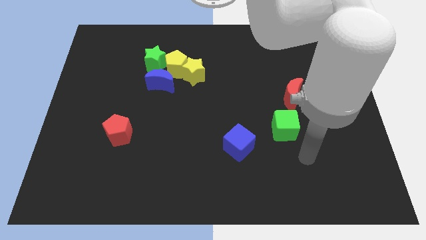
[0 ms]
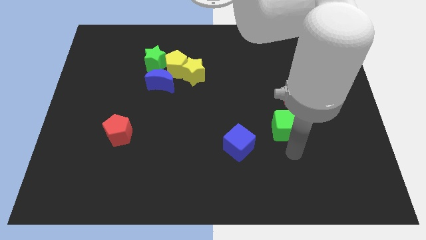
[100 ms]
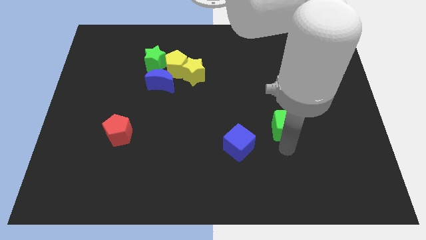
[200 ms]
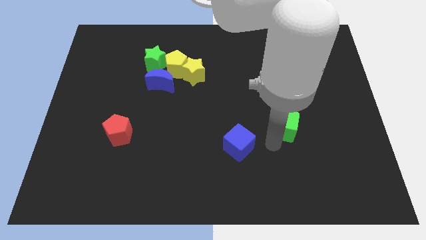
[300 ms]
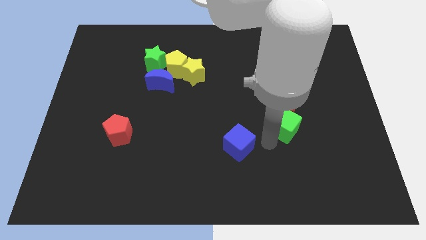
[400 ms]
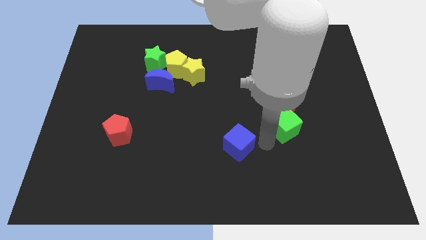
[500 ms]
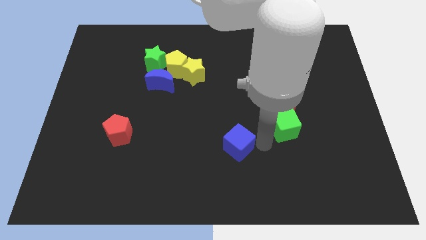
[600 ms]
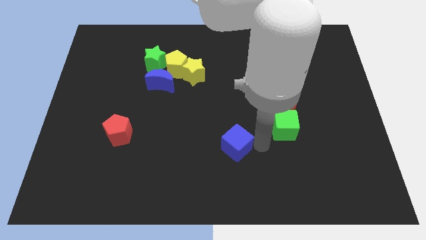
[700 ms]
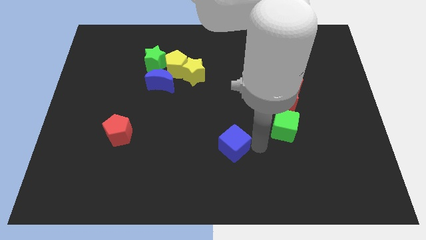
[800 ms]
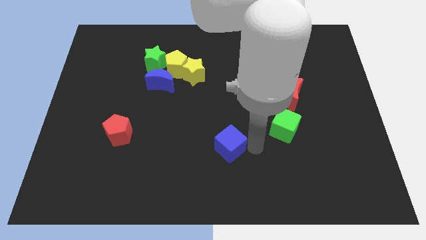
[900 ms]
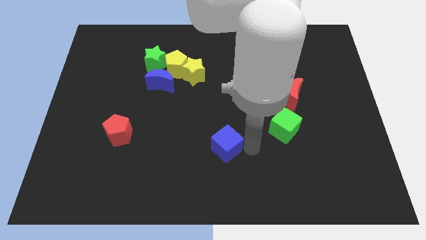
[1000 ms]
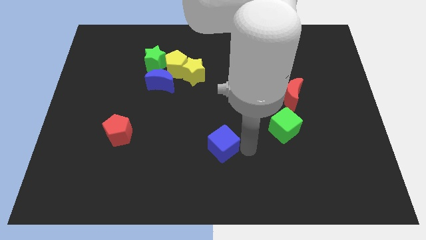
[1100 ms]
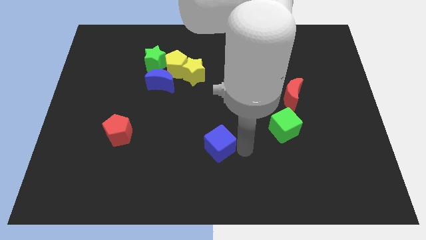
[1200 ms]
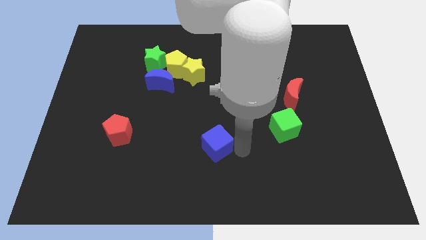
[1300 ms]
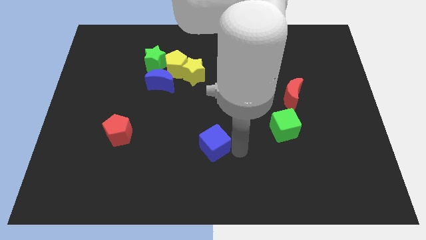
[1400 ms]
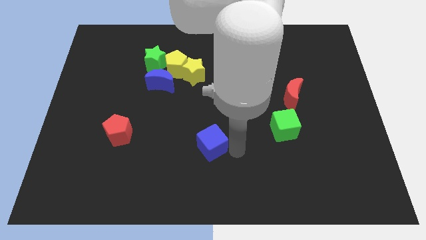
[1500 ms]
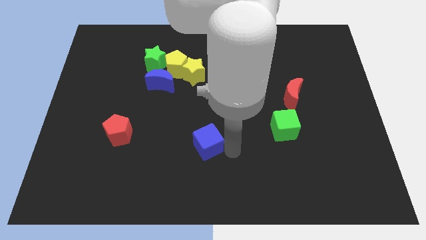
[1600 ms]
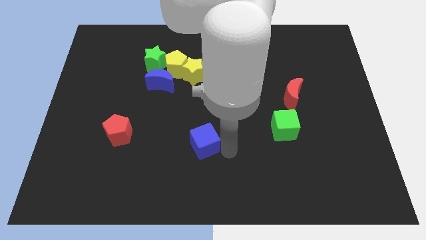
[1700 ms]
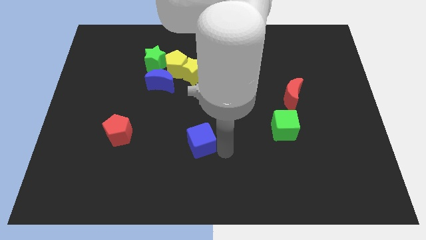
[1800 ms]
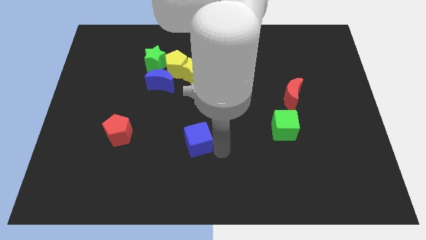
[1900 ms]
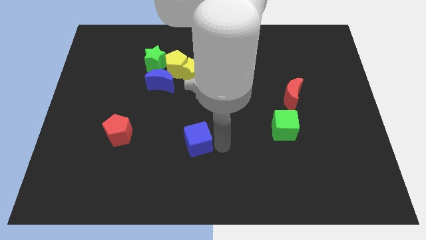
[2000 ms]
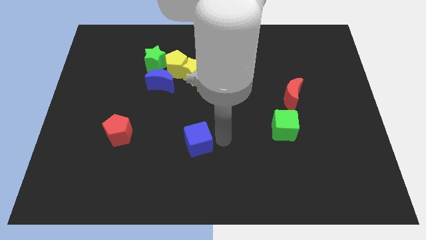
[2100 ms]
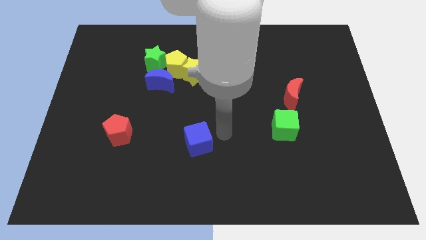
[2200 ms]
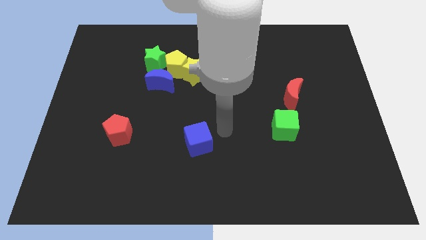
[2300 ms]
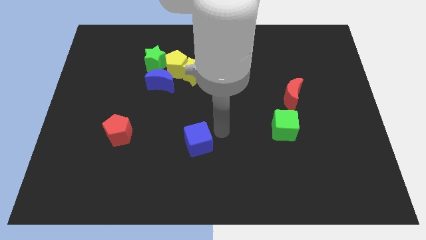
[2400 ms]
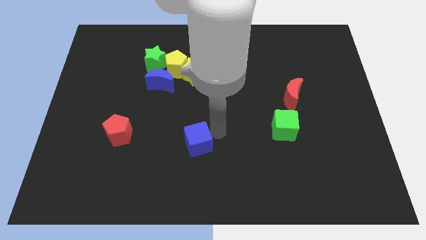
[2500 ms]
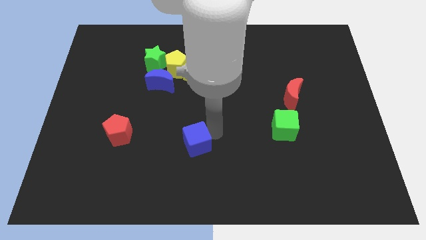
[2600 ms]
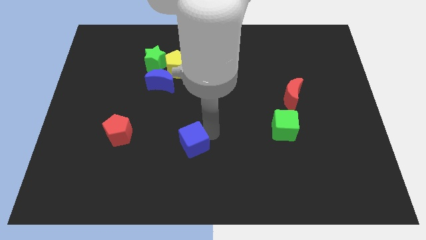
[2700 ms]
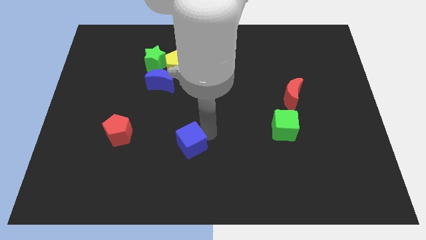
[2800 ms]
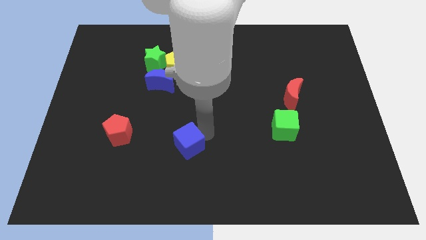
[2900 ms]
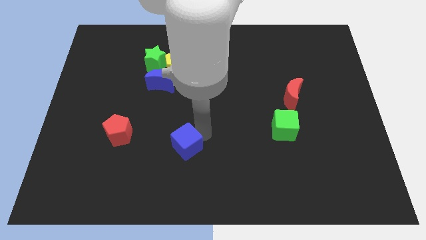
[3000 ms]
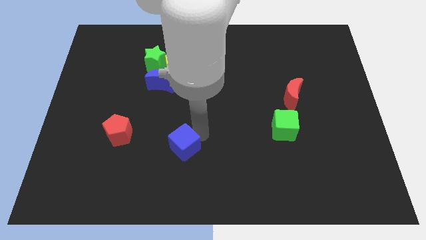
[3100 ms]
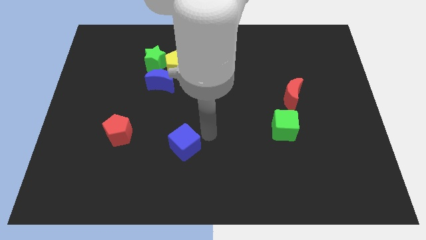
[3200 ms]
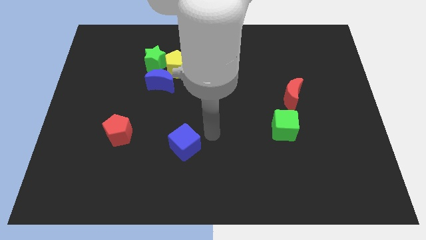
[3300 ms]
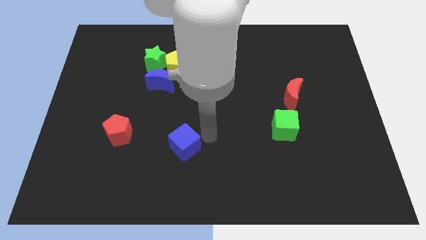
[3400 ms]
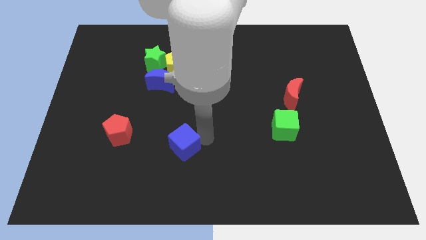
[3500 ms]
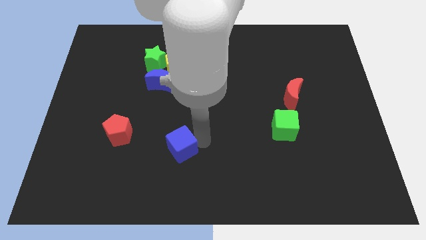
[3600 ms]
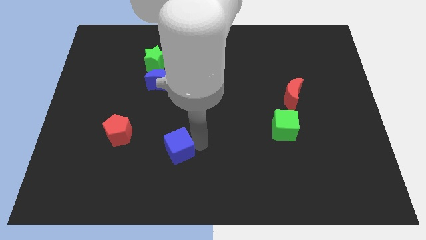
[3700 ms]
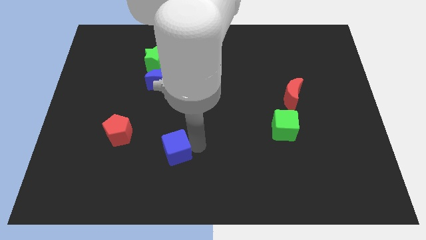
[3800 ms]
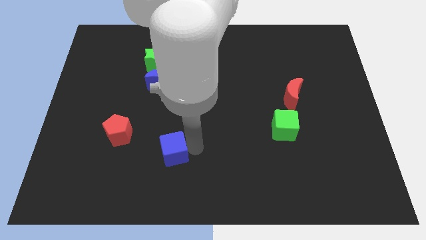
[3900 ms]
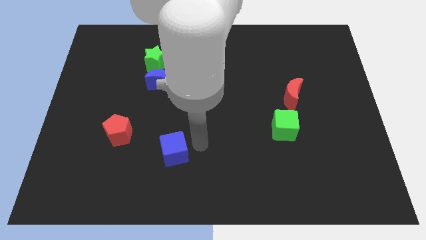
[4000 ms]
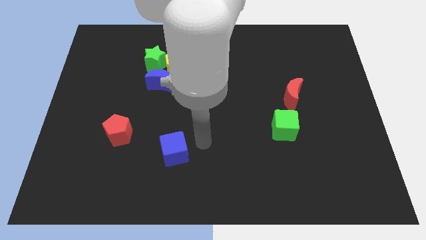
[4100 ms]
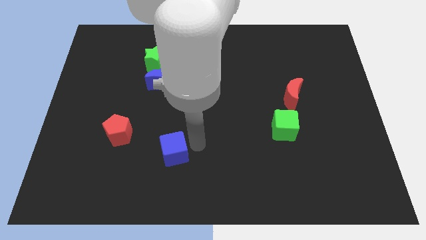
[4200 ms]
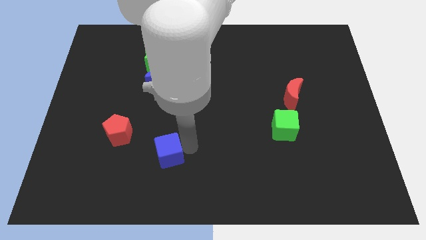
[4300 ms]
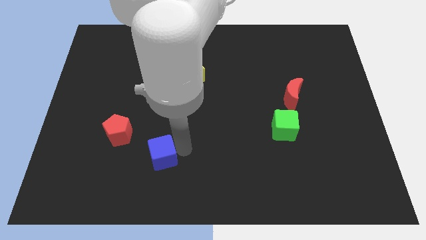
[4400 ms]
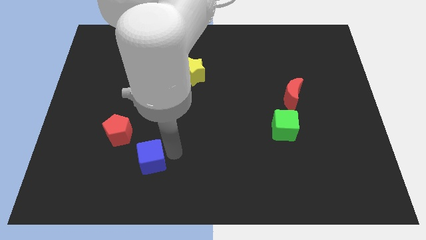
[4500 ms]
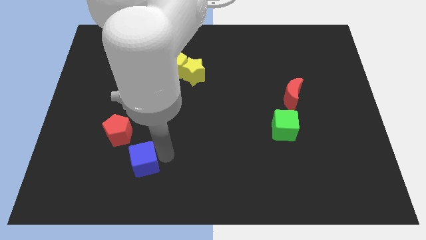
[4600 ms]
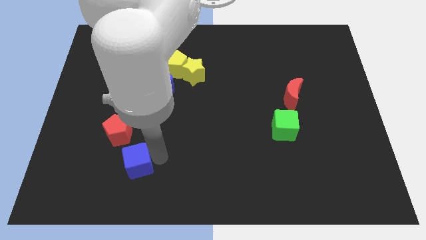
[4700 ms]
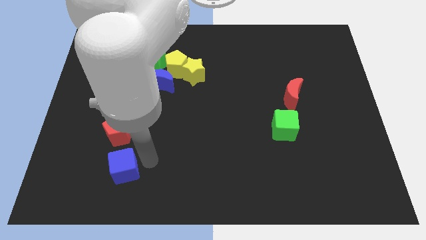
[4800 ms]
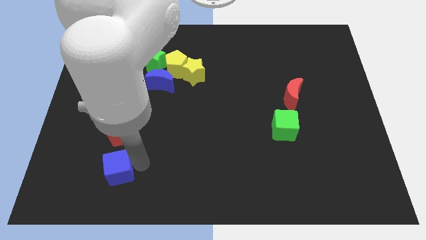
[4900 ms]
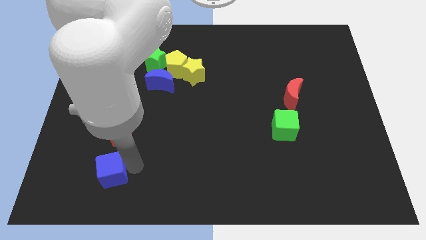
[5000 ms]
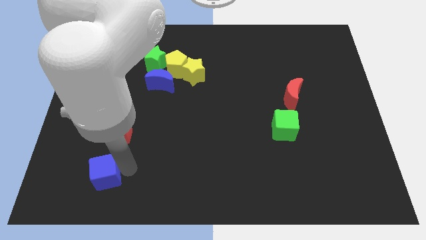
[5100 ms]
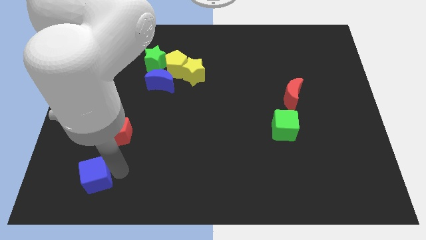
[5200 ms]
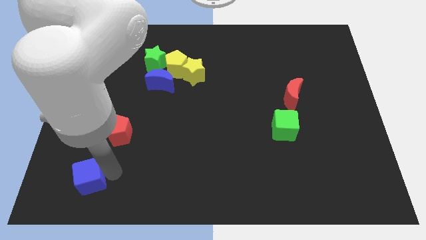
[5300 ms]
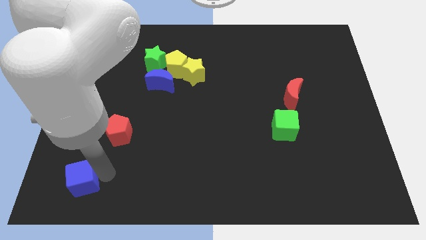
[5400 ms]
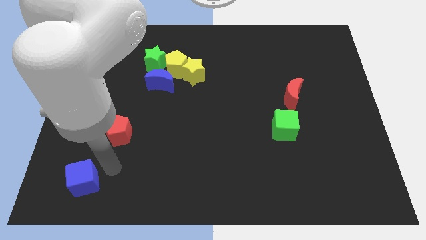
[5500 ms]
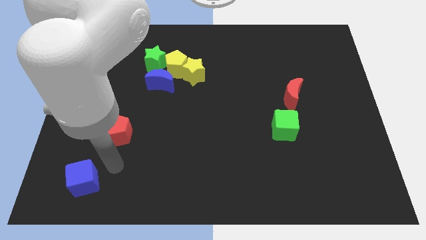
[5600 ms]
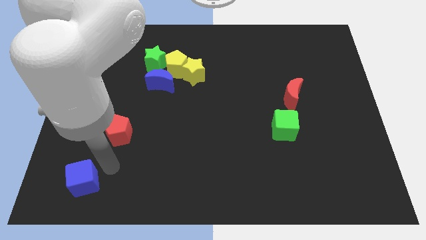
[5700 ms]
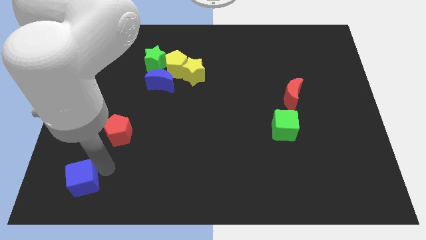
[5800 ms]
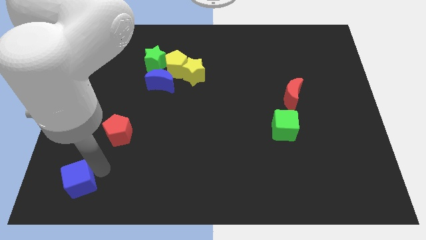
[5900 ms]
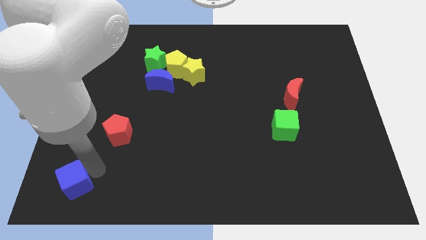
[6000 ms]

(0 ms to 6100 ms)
put the blue cube to the lower left corner
